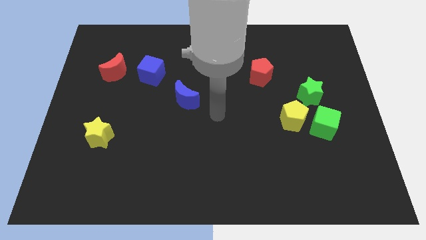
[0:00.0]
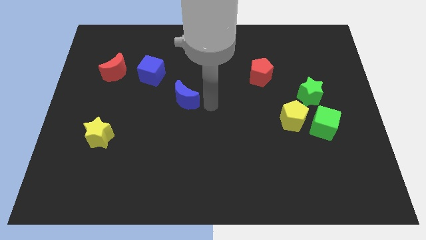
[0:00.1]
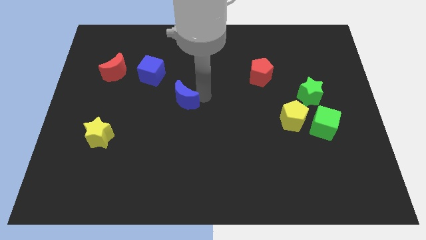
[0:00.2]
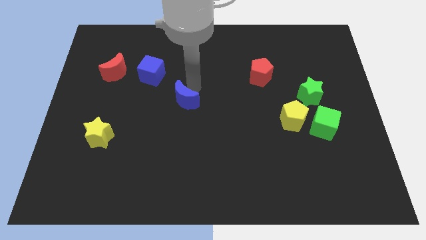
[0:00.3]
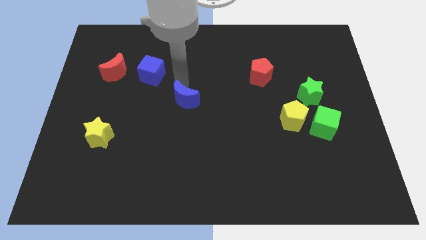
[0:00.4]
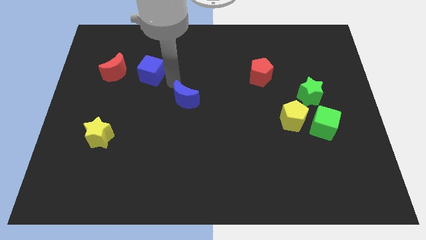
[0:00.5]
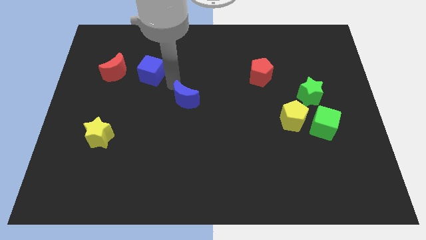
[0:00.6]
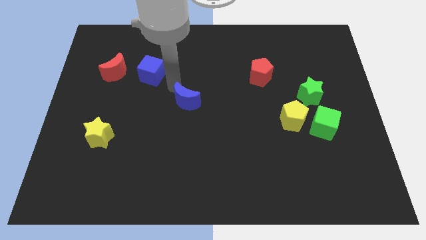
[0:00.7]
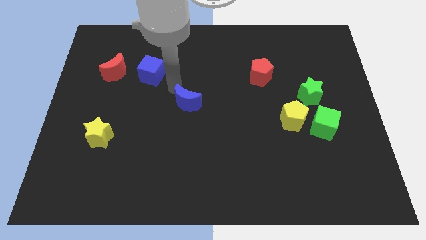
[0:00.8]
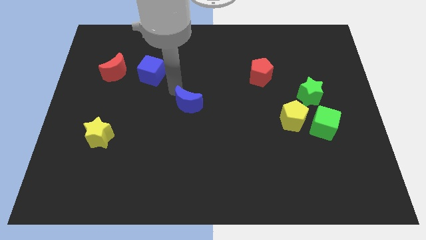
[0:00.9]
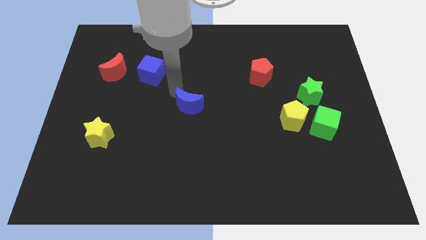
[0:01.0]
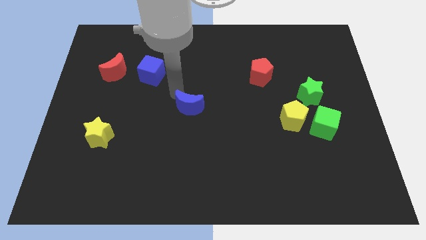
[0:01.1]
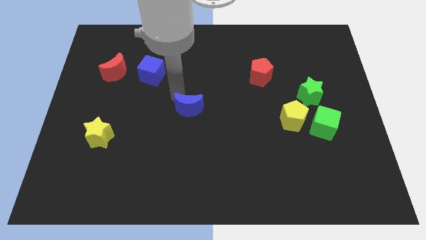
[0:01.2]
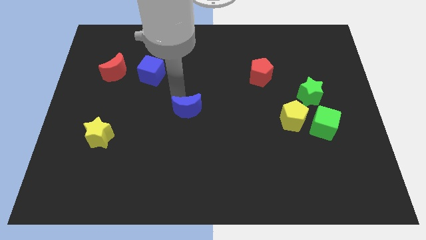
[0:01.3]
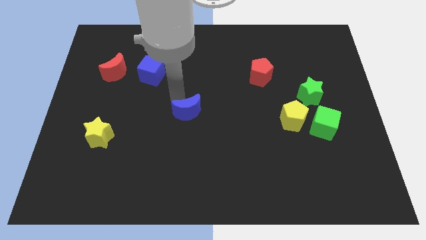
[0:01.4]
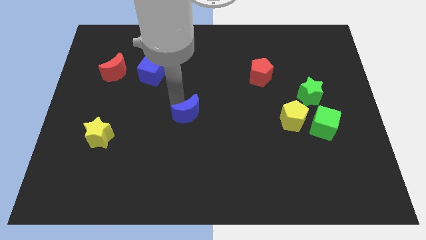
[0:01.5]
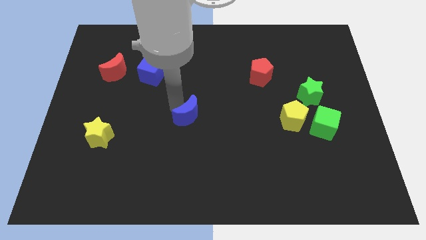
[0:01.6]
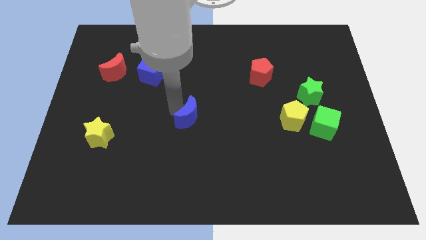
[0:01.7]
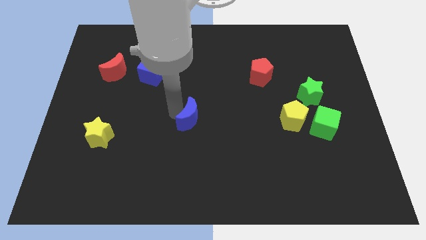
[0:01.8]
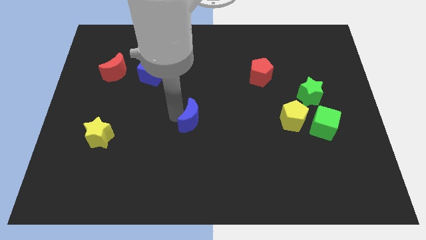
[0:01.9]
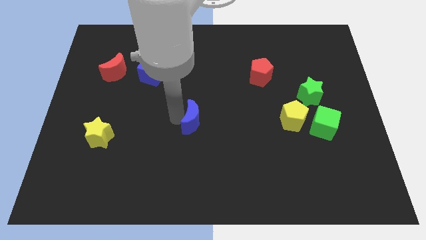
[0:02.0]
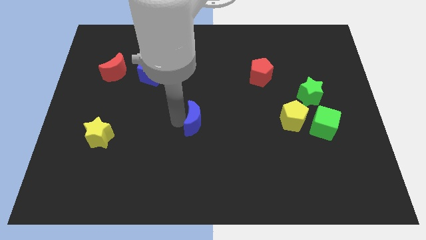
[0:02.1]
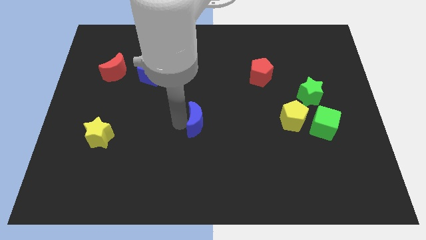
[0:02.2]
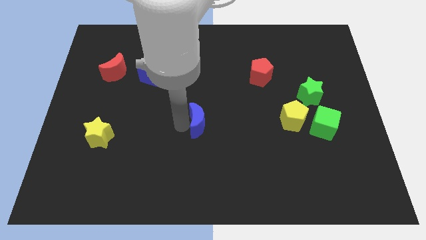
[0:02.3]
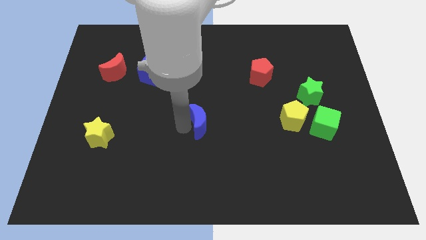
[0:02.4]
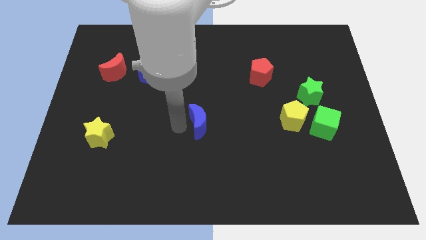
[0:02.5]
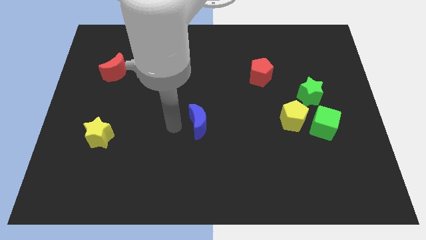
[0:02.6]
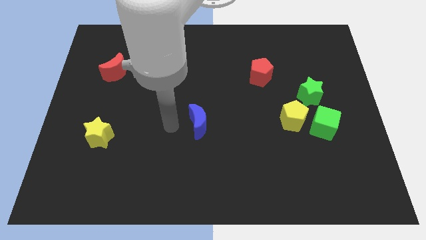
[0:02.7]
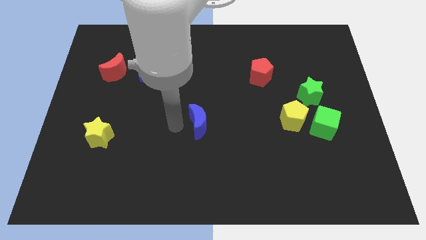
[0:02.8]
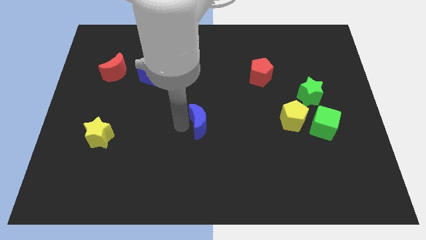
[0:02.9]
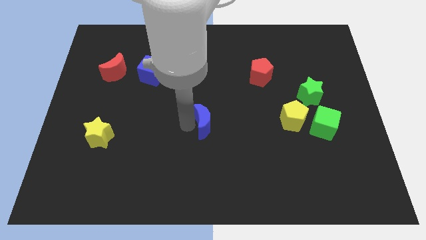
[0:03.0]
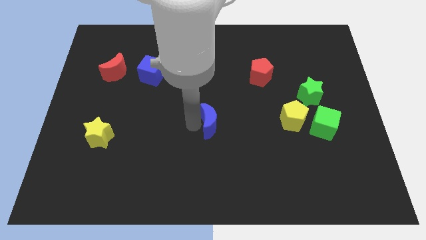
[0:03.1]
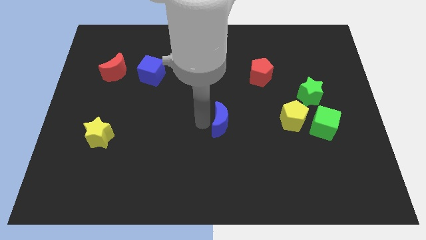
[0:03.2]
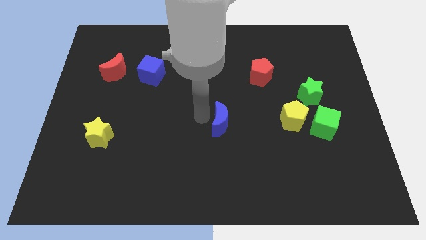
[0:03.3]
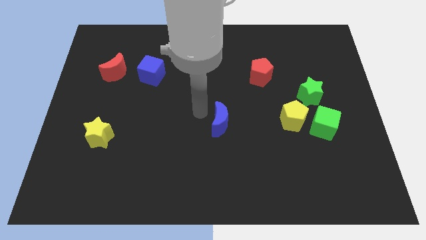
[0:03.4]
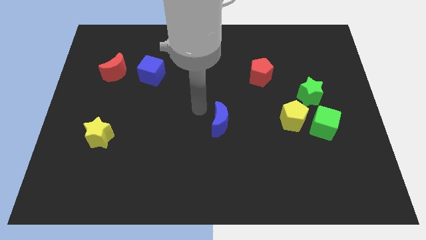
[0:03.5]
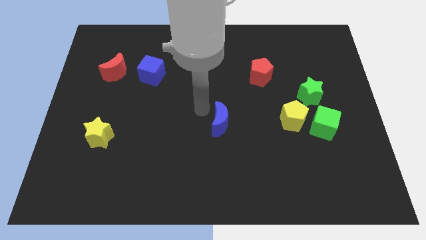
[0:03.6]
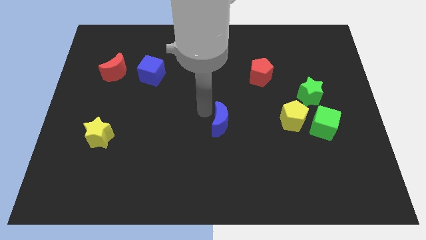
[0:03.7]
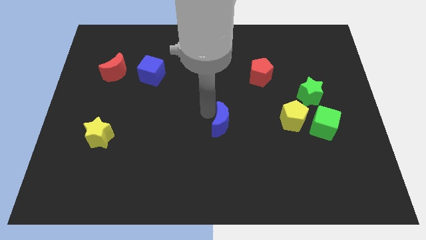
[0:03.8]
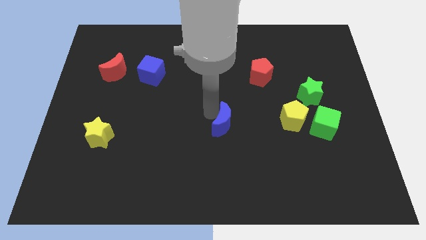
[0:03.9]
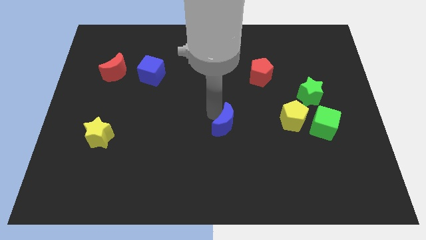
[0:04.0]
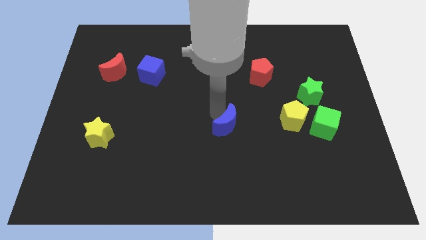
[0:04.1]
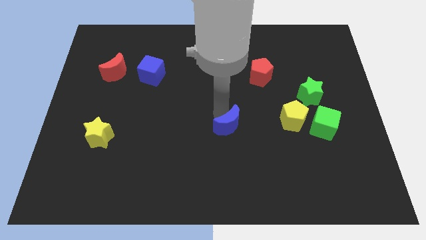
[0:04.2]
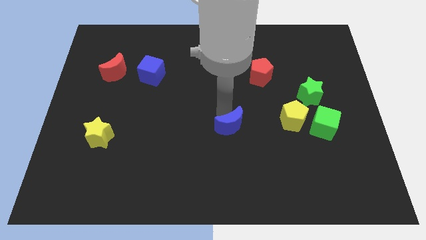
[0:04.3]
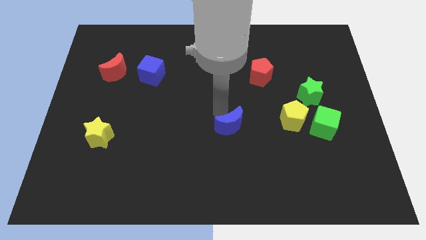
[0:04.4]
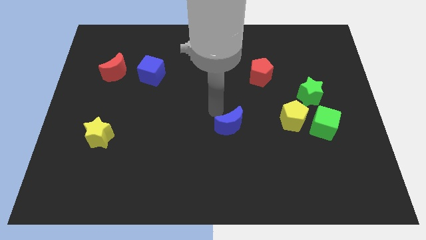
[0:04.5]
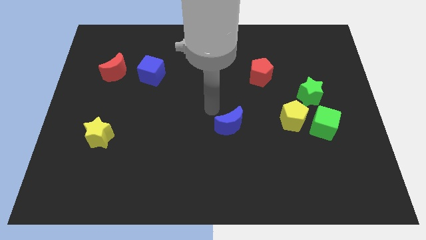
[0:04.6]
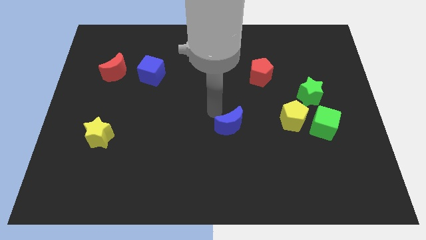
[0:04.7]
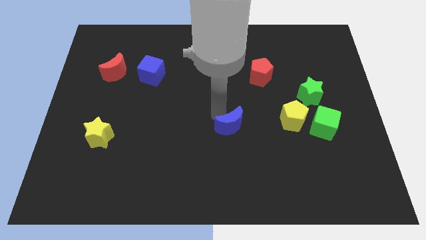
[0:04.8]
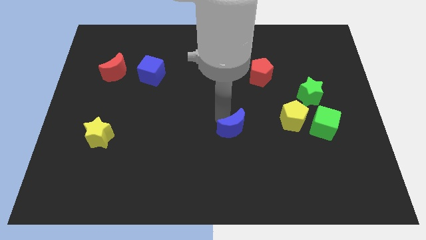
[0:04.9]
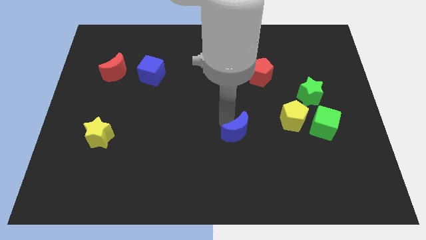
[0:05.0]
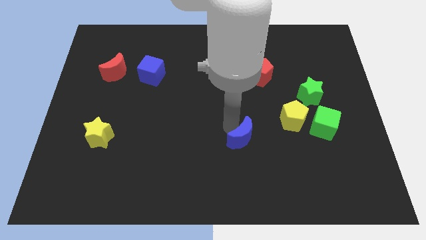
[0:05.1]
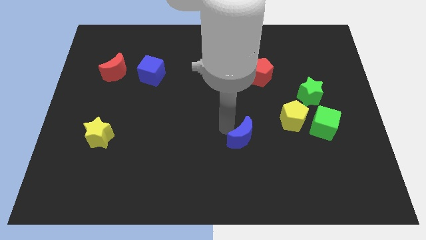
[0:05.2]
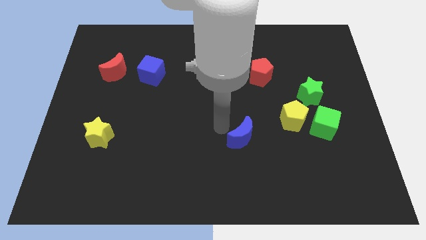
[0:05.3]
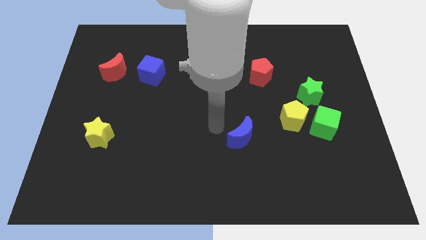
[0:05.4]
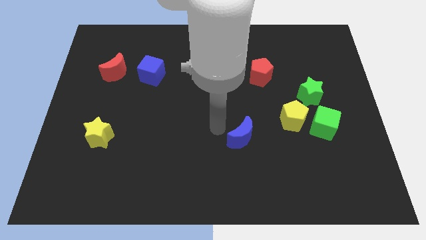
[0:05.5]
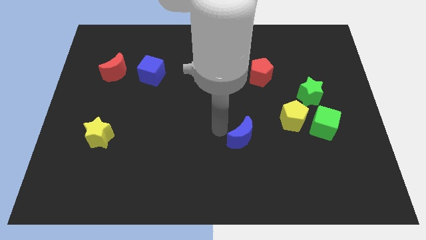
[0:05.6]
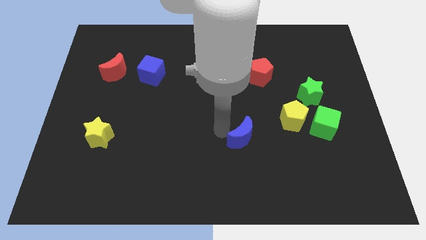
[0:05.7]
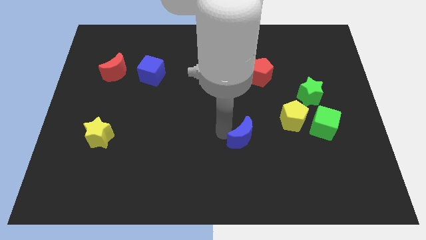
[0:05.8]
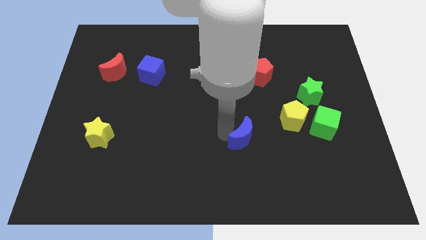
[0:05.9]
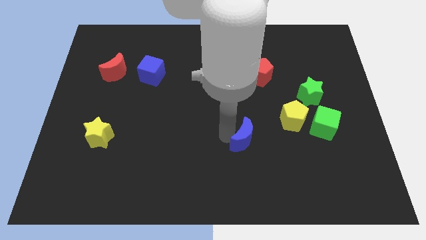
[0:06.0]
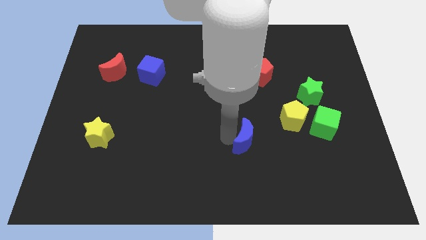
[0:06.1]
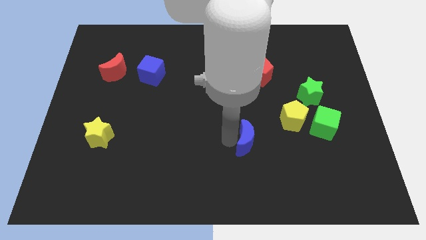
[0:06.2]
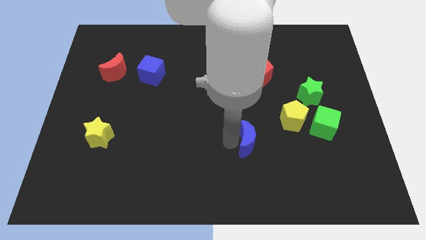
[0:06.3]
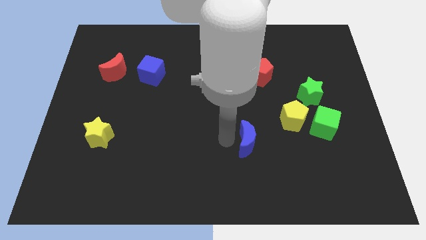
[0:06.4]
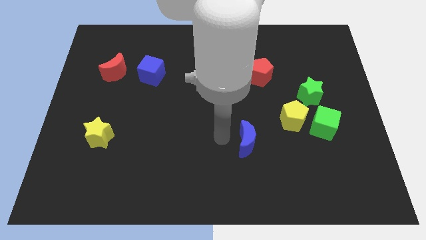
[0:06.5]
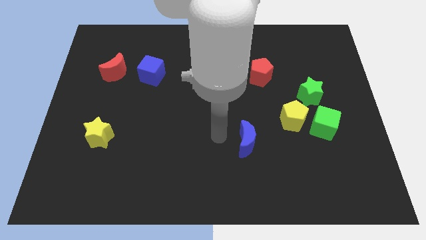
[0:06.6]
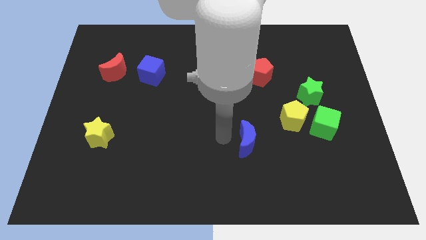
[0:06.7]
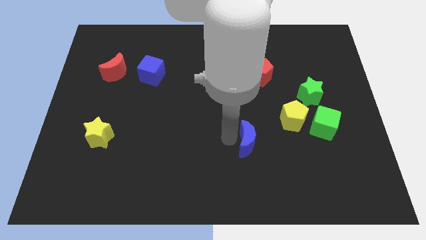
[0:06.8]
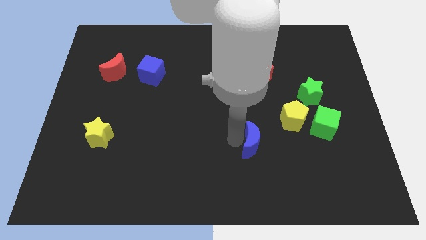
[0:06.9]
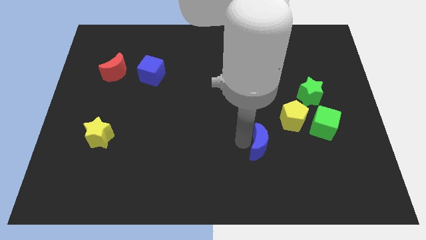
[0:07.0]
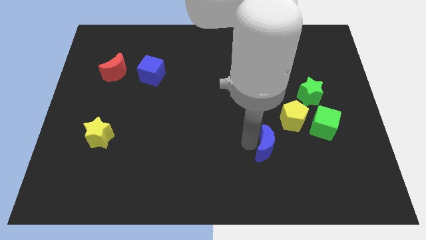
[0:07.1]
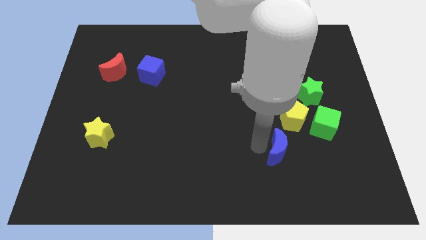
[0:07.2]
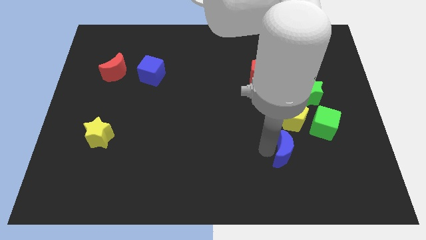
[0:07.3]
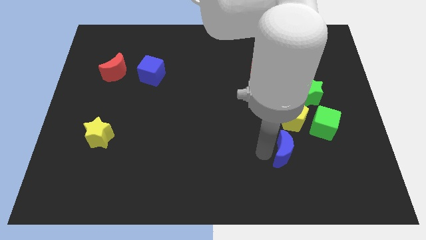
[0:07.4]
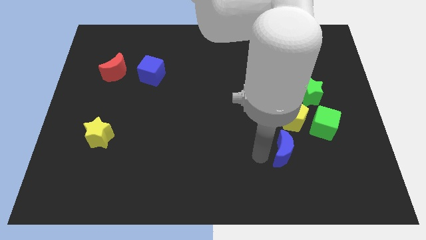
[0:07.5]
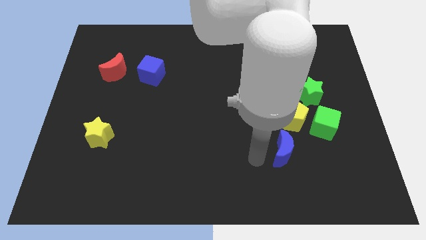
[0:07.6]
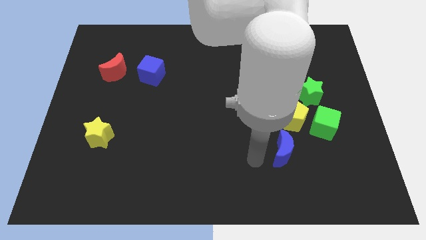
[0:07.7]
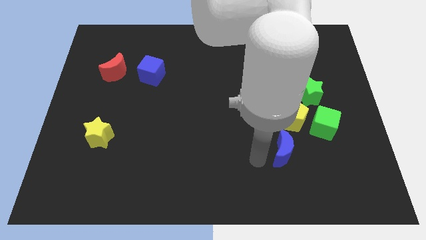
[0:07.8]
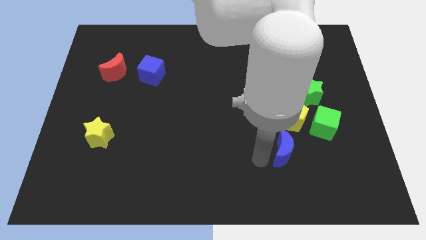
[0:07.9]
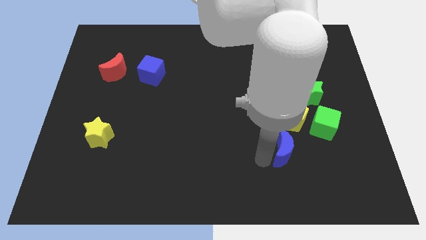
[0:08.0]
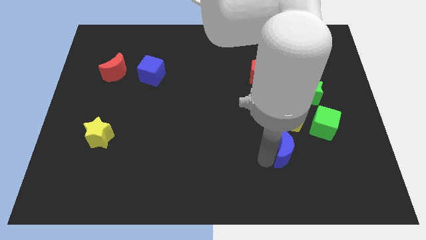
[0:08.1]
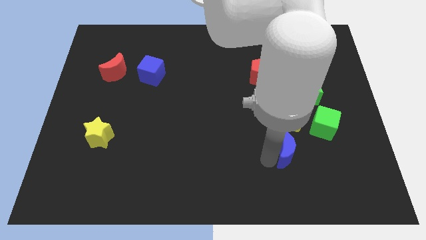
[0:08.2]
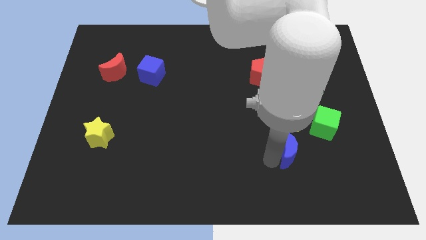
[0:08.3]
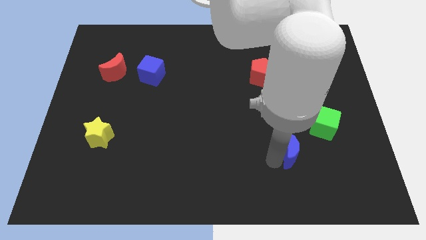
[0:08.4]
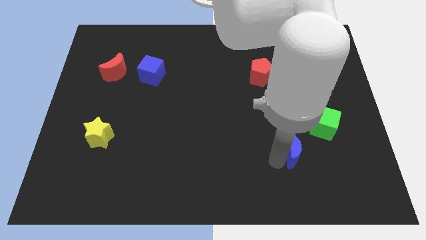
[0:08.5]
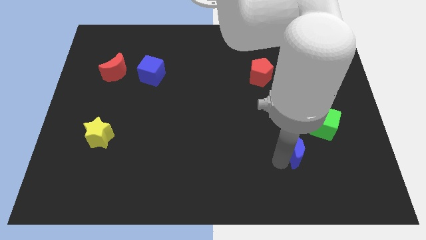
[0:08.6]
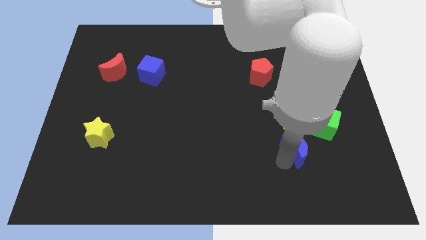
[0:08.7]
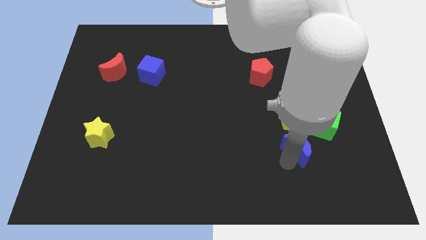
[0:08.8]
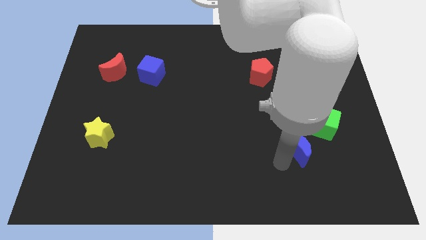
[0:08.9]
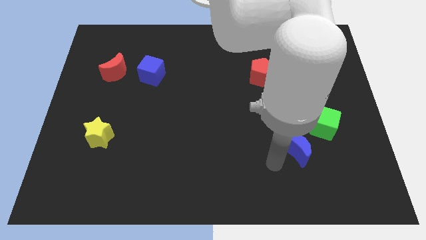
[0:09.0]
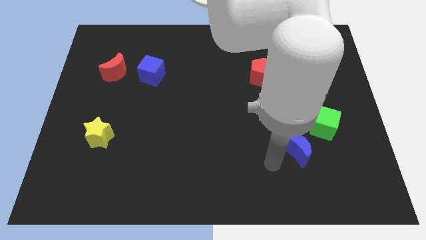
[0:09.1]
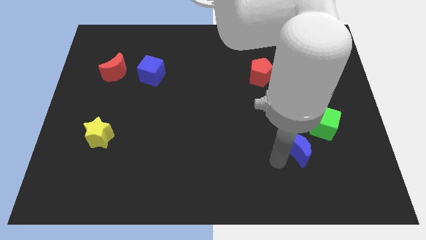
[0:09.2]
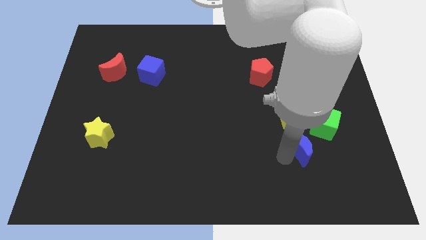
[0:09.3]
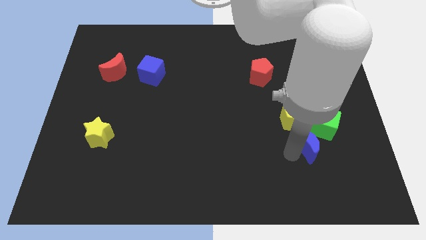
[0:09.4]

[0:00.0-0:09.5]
put the blue moon to the bottom right side of the yellow pentagon
